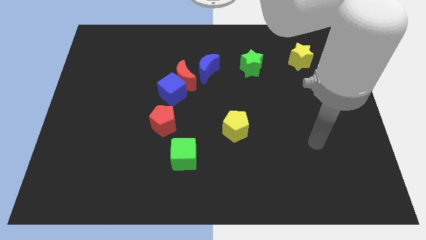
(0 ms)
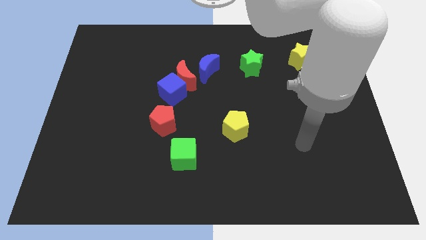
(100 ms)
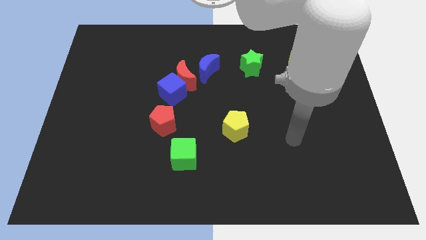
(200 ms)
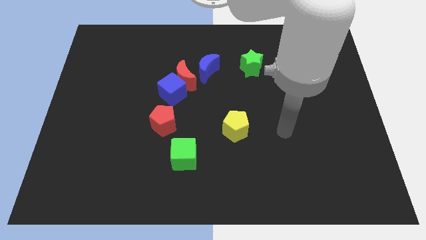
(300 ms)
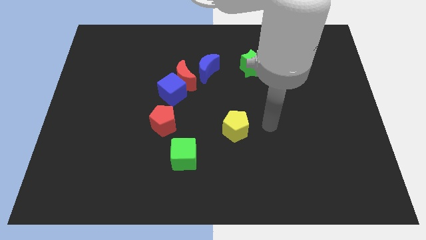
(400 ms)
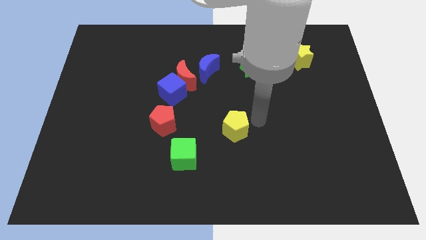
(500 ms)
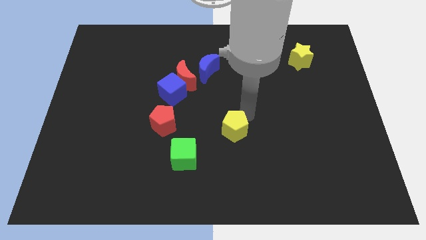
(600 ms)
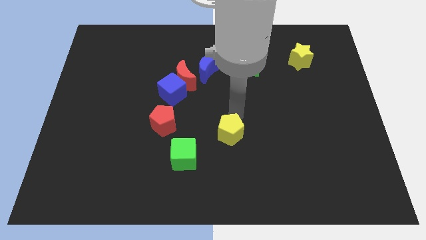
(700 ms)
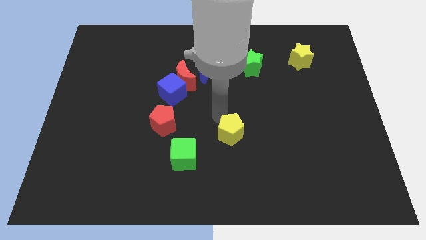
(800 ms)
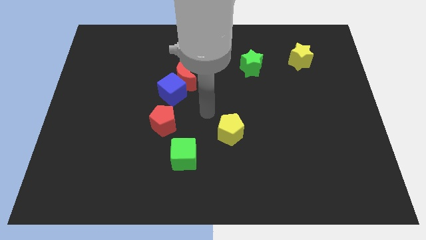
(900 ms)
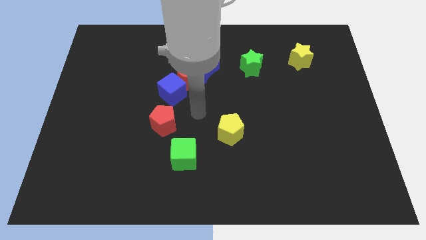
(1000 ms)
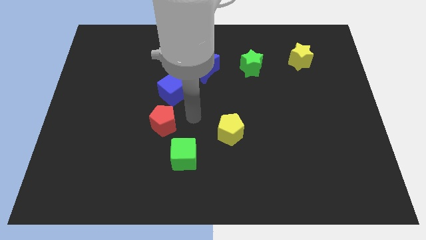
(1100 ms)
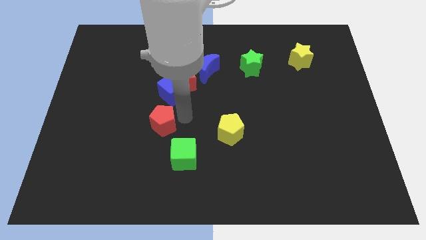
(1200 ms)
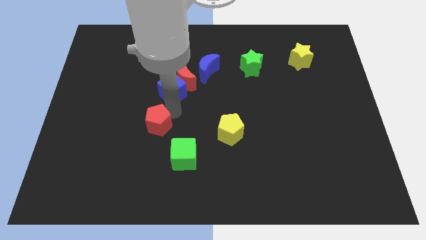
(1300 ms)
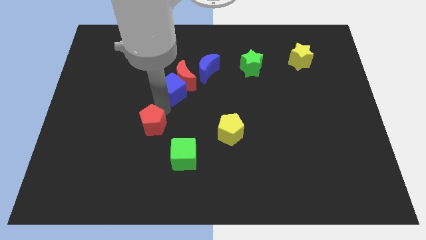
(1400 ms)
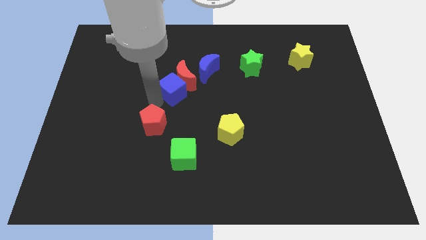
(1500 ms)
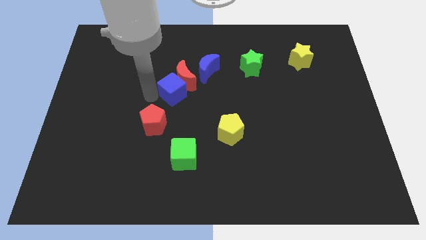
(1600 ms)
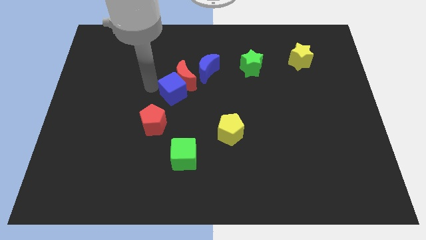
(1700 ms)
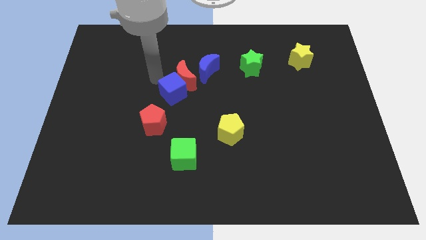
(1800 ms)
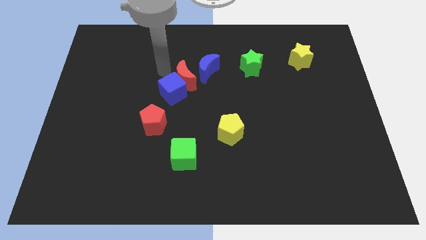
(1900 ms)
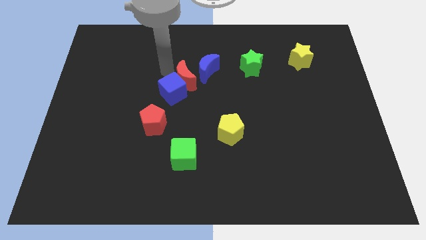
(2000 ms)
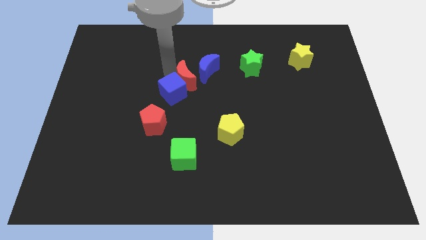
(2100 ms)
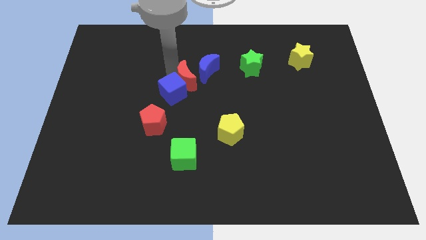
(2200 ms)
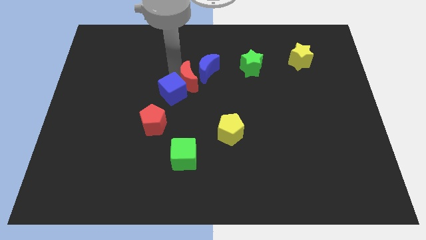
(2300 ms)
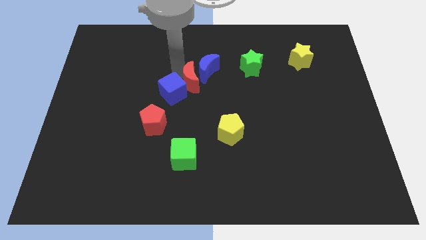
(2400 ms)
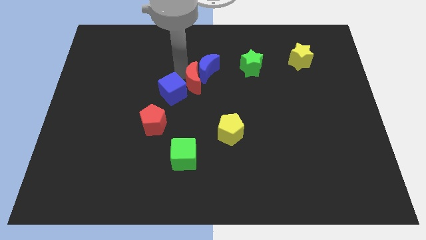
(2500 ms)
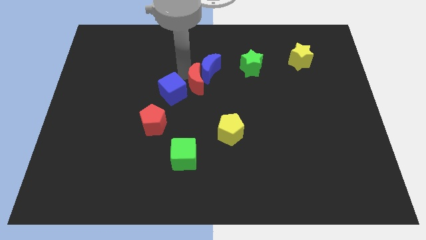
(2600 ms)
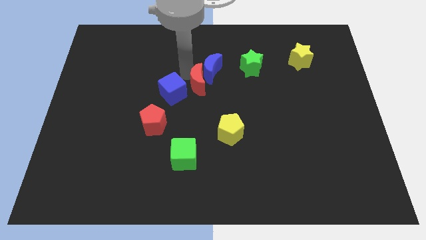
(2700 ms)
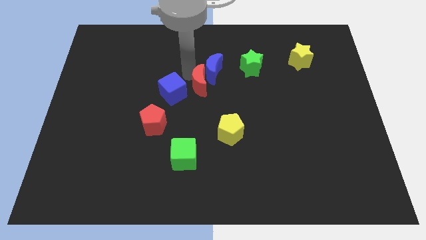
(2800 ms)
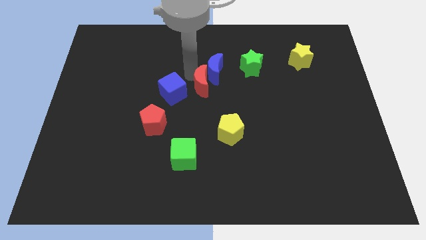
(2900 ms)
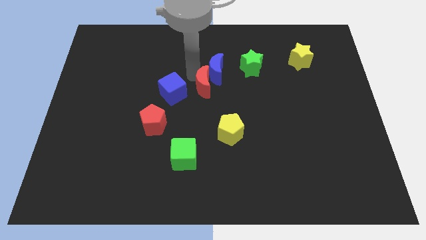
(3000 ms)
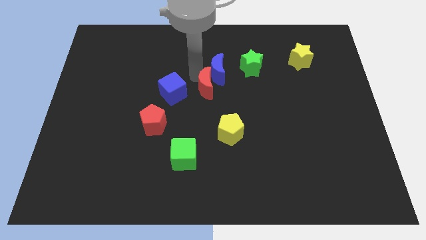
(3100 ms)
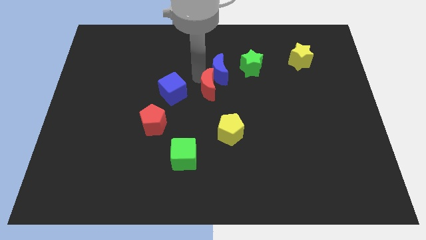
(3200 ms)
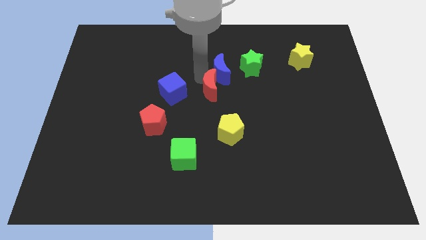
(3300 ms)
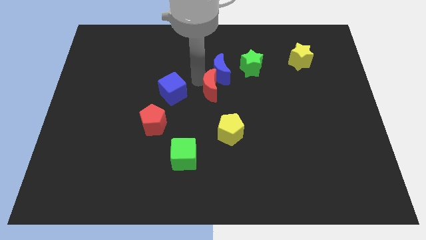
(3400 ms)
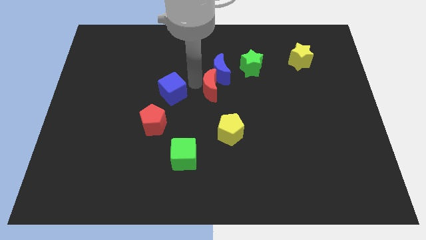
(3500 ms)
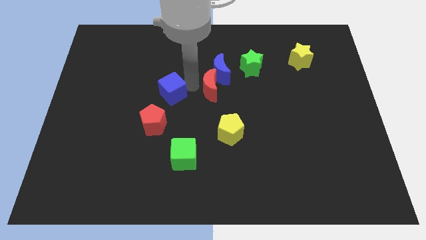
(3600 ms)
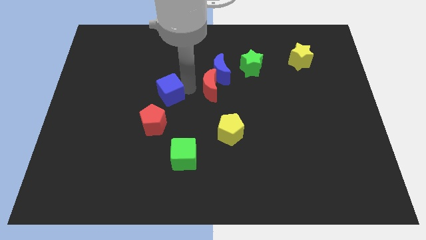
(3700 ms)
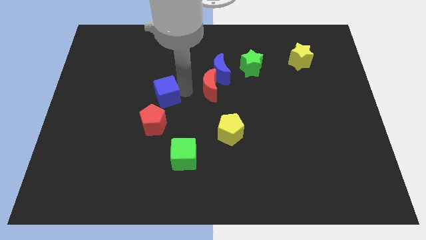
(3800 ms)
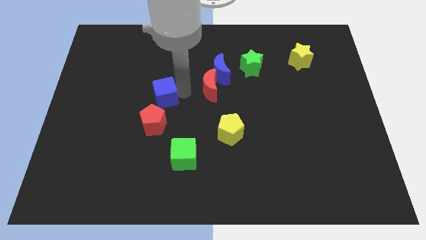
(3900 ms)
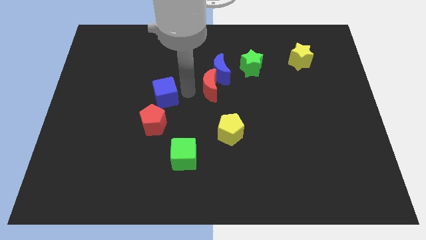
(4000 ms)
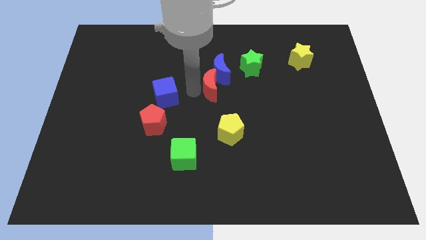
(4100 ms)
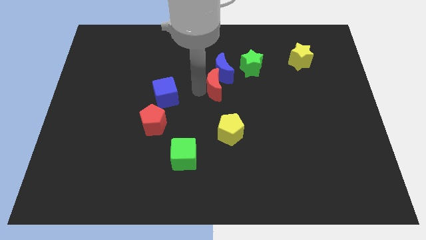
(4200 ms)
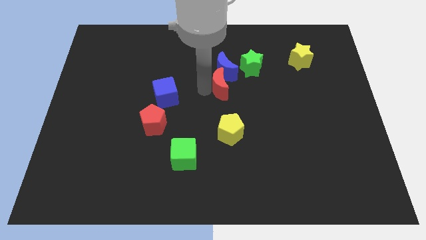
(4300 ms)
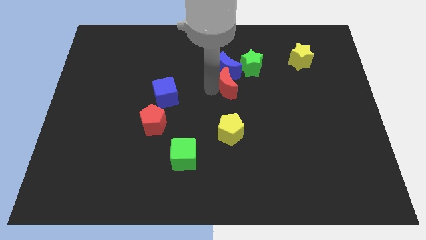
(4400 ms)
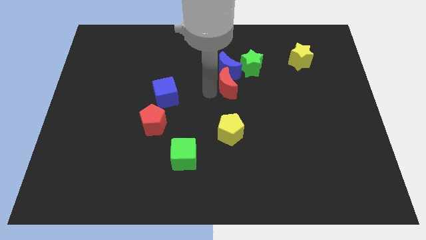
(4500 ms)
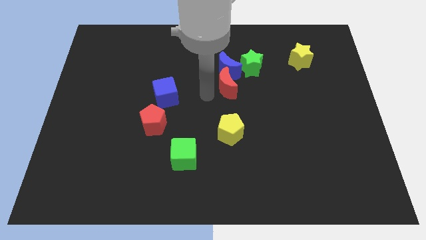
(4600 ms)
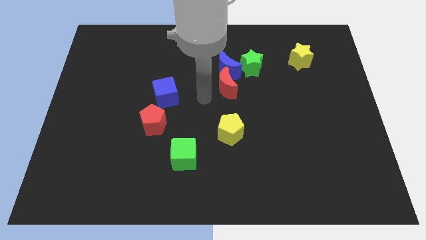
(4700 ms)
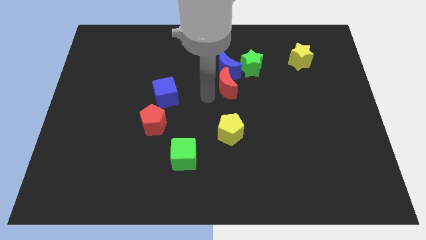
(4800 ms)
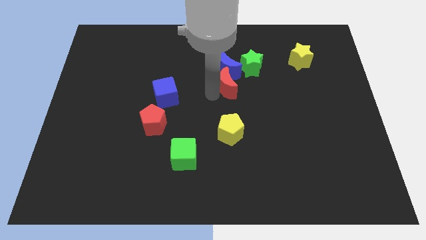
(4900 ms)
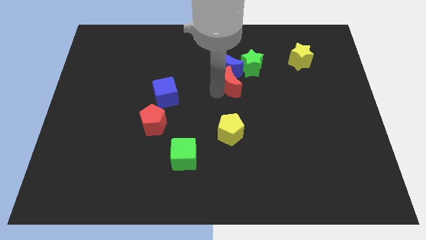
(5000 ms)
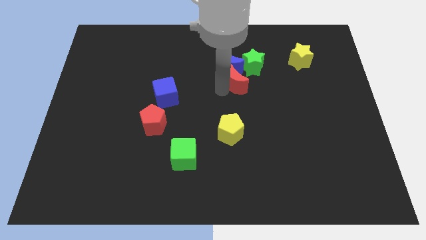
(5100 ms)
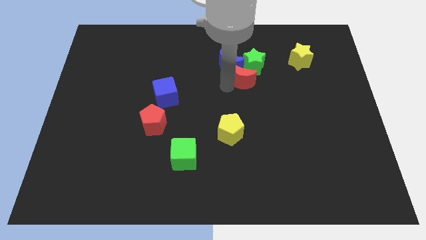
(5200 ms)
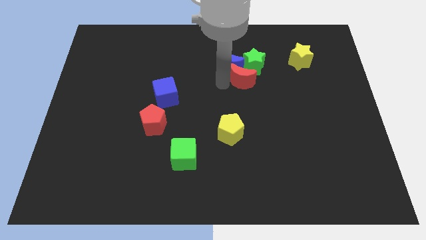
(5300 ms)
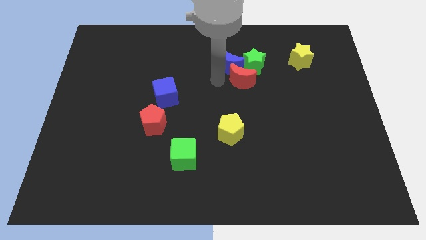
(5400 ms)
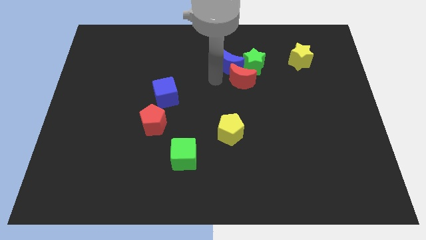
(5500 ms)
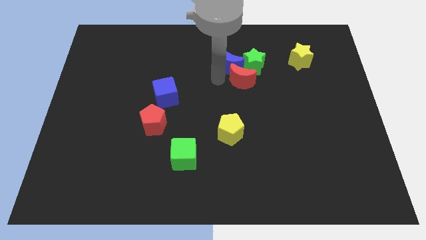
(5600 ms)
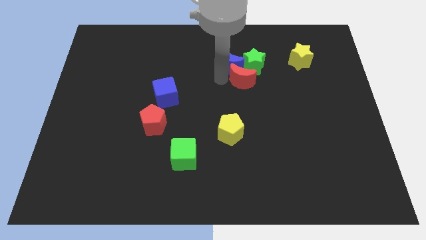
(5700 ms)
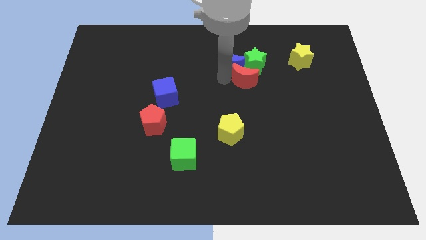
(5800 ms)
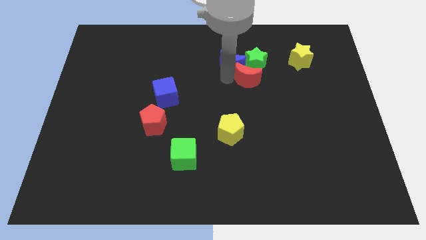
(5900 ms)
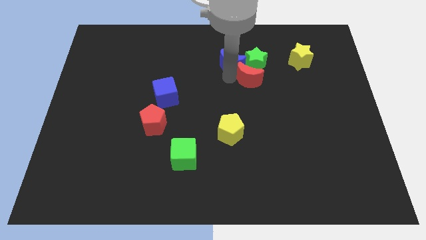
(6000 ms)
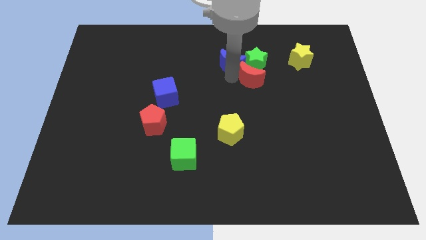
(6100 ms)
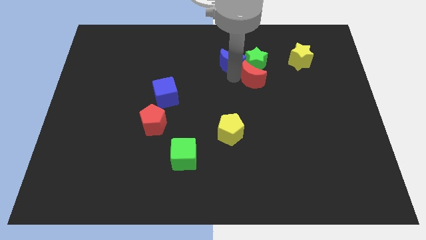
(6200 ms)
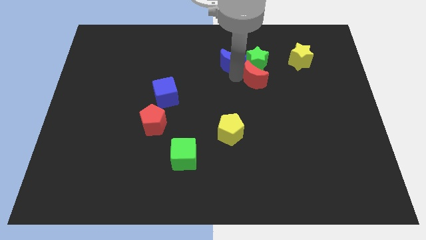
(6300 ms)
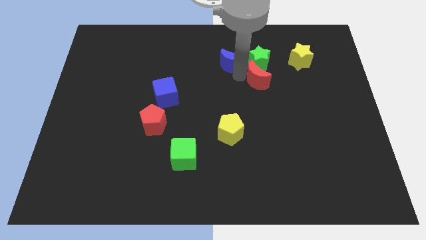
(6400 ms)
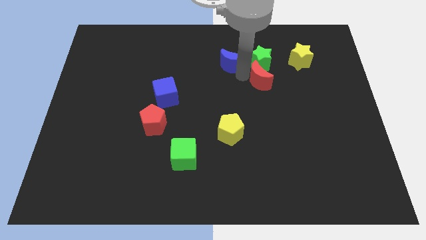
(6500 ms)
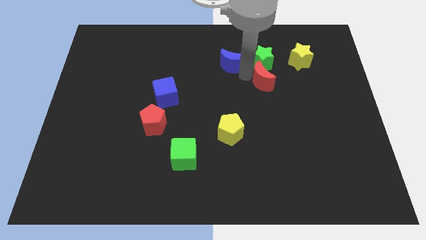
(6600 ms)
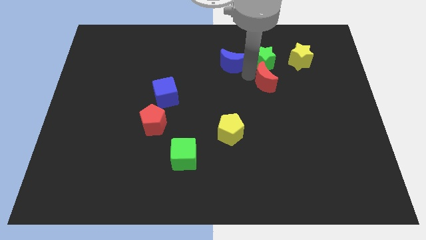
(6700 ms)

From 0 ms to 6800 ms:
push the red moon right

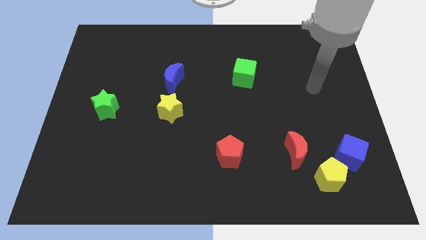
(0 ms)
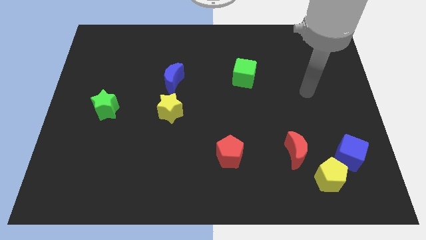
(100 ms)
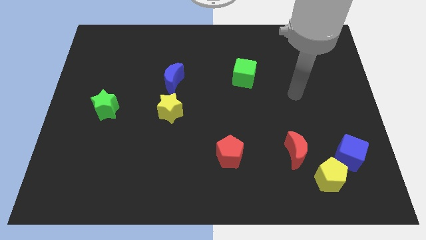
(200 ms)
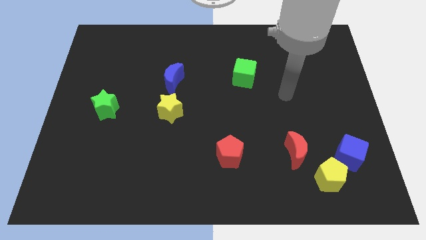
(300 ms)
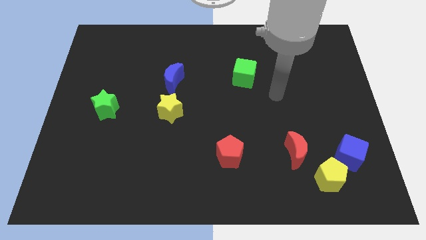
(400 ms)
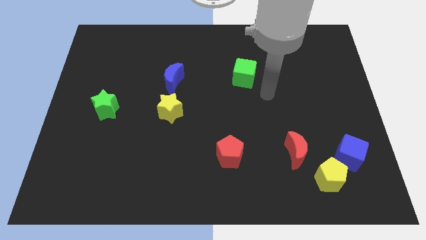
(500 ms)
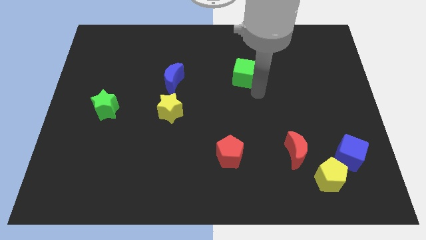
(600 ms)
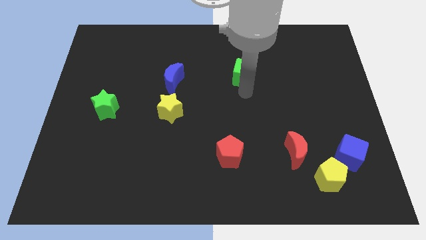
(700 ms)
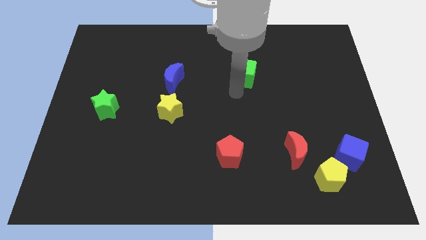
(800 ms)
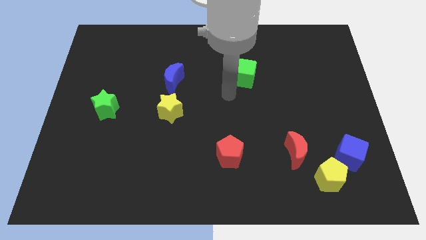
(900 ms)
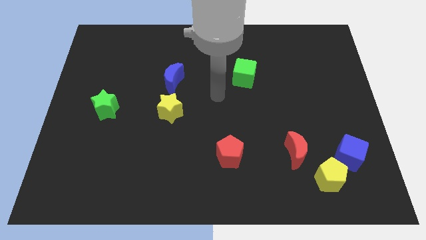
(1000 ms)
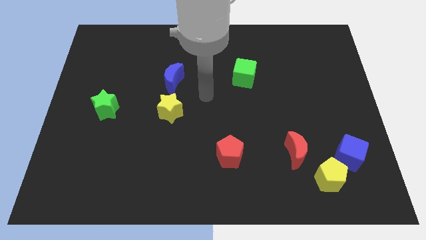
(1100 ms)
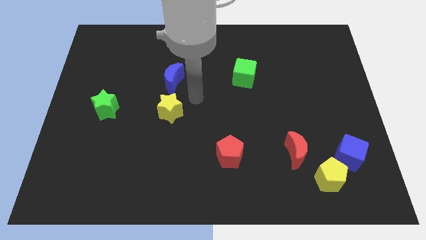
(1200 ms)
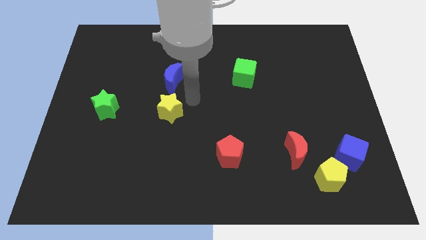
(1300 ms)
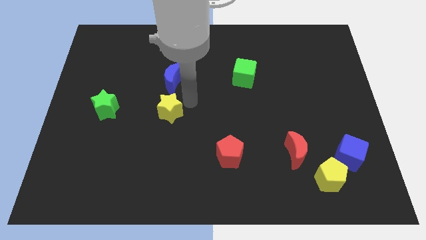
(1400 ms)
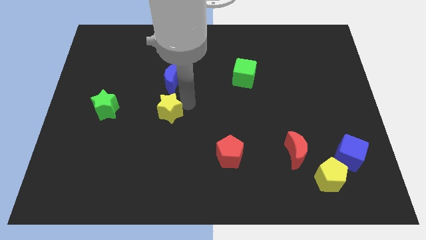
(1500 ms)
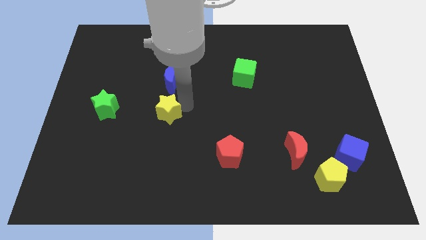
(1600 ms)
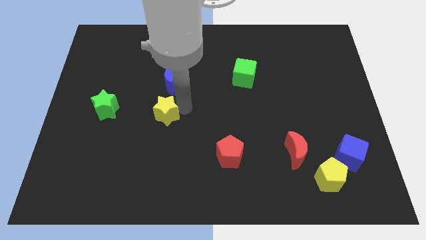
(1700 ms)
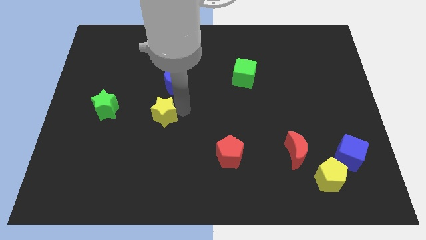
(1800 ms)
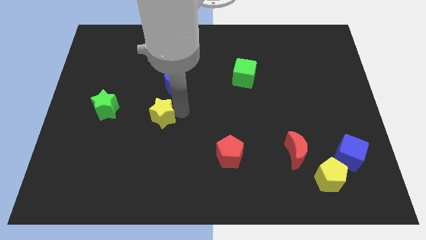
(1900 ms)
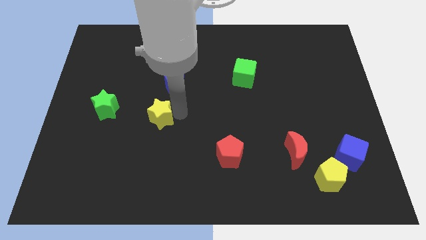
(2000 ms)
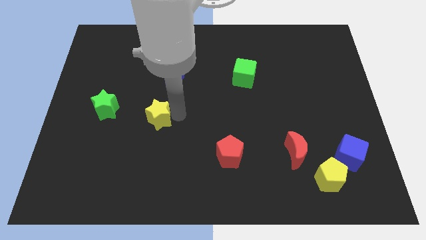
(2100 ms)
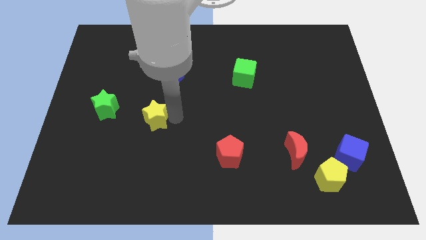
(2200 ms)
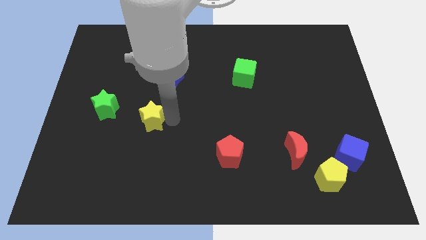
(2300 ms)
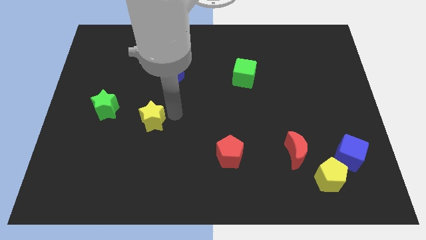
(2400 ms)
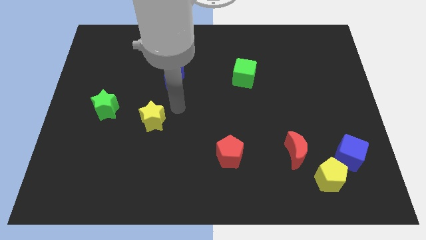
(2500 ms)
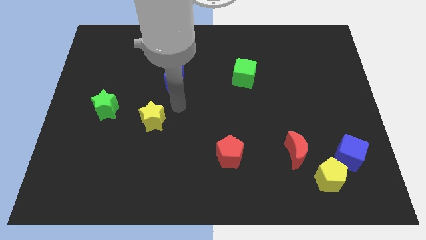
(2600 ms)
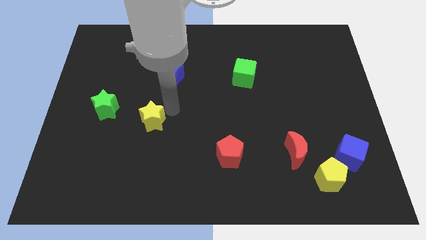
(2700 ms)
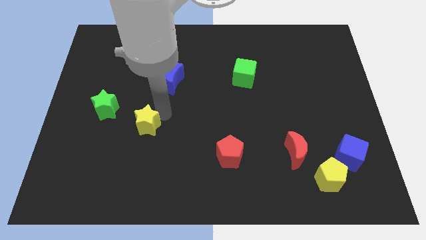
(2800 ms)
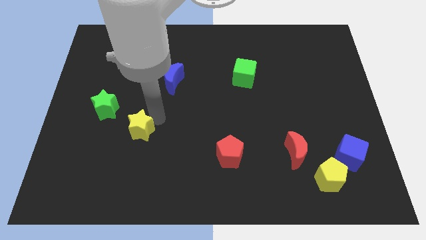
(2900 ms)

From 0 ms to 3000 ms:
slightly slide the yellow star diagonally down and to the left
